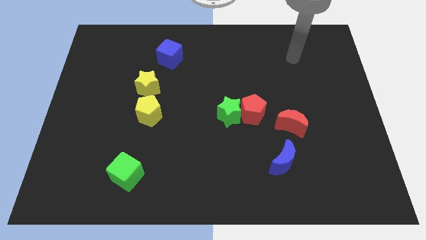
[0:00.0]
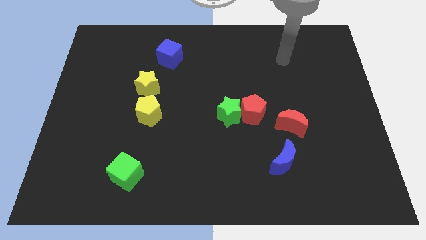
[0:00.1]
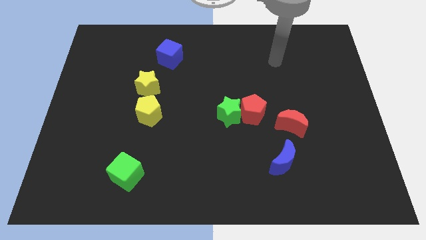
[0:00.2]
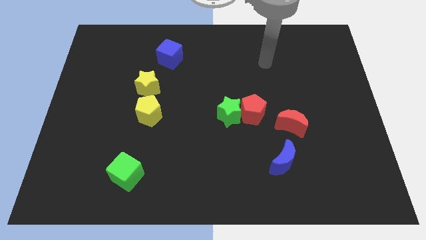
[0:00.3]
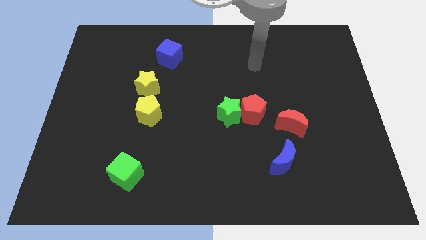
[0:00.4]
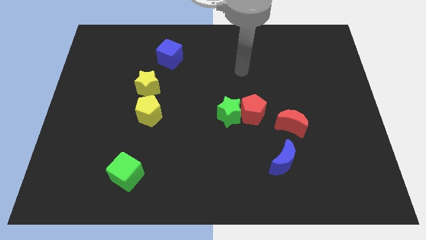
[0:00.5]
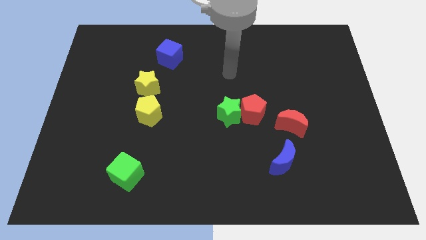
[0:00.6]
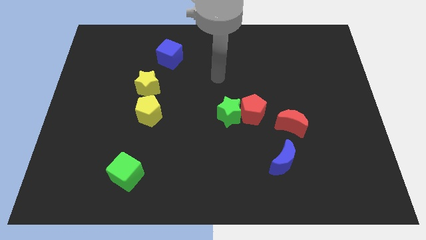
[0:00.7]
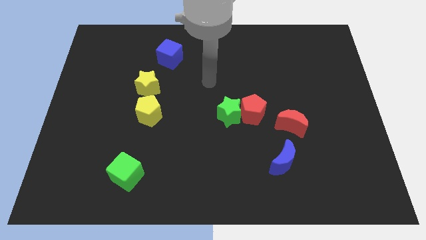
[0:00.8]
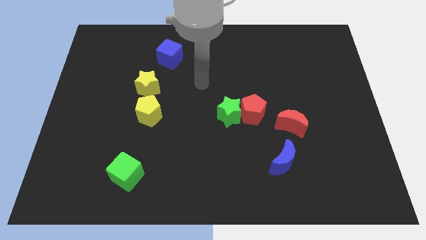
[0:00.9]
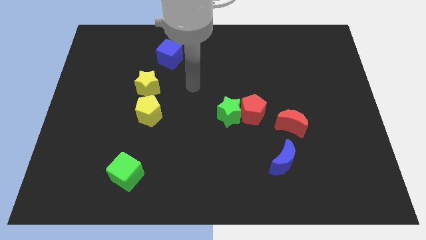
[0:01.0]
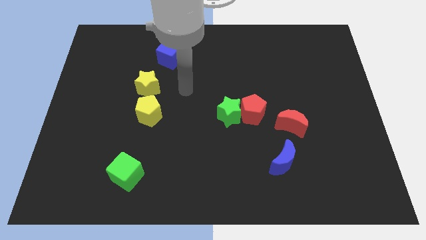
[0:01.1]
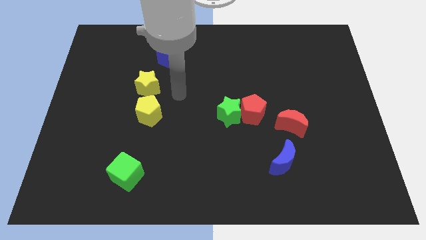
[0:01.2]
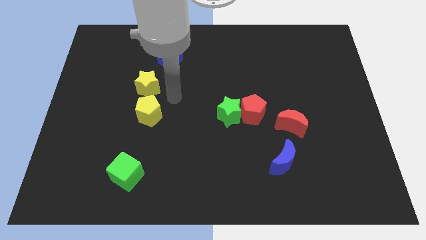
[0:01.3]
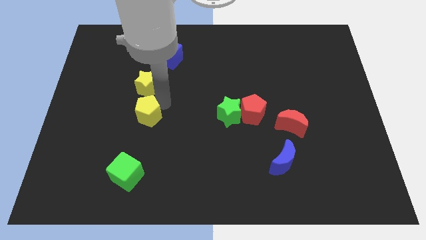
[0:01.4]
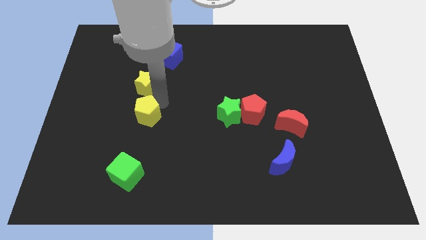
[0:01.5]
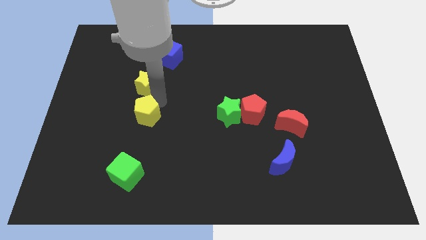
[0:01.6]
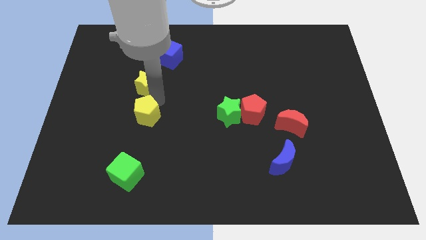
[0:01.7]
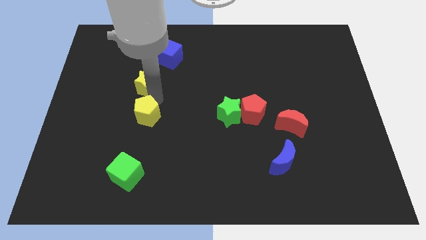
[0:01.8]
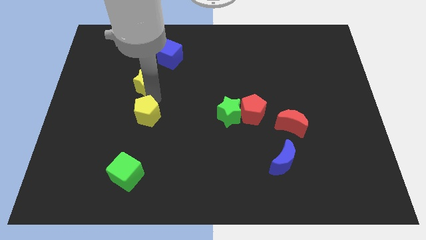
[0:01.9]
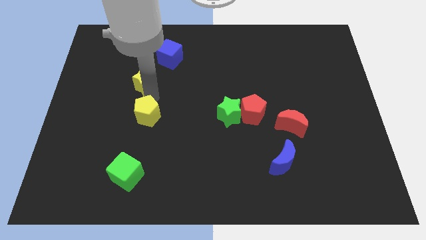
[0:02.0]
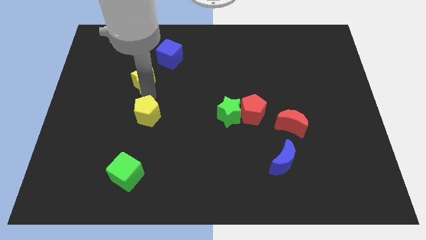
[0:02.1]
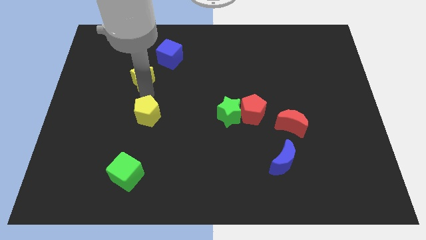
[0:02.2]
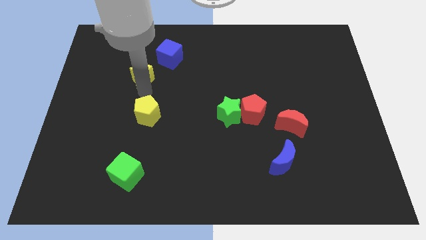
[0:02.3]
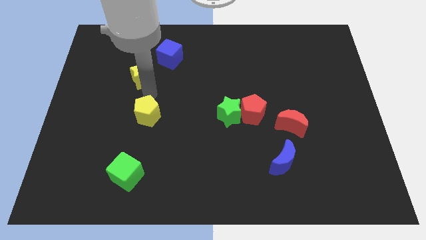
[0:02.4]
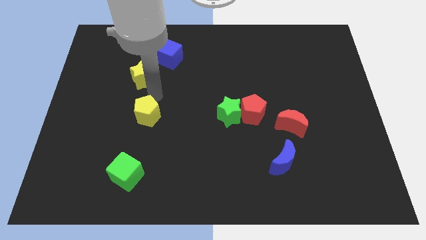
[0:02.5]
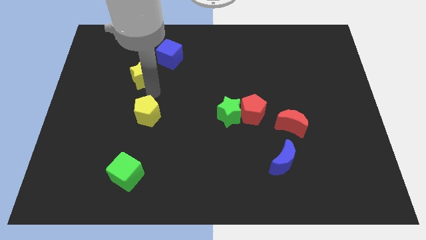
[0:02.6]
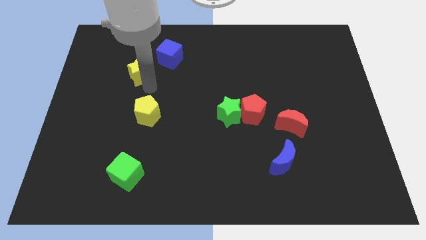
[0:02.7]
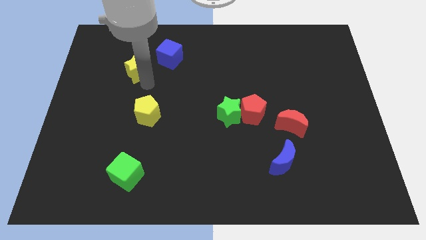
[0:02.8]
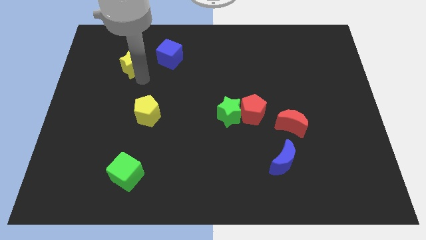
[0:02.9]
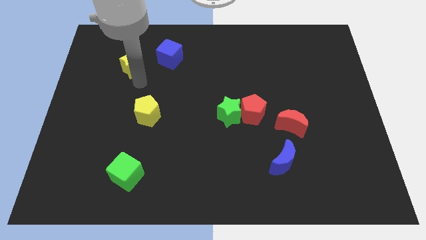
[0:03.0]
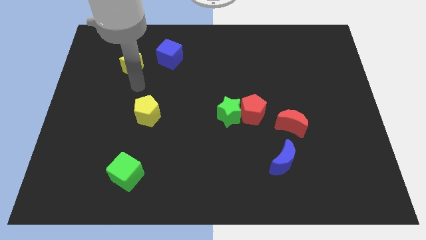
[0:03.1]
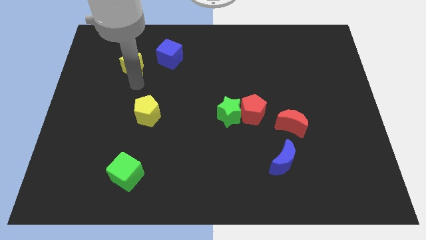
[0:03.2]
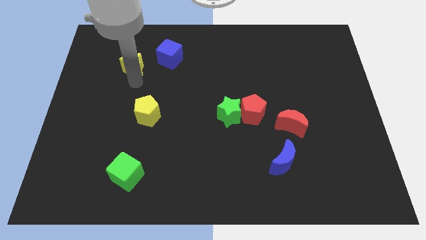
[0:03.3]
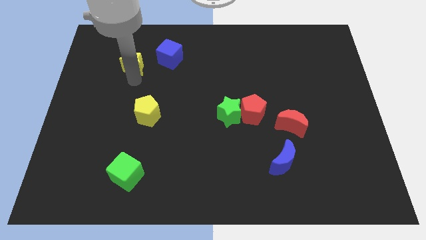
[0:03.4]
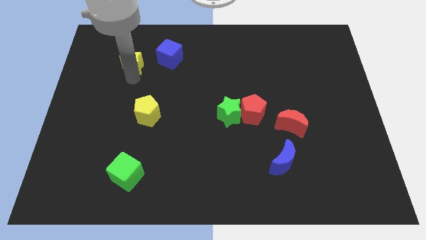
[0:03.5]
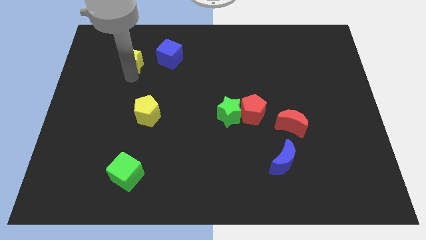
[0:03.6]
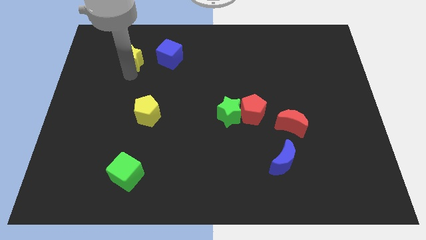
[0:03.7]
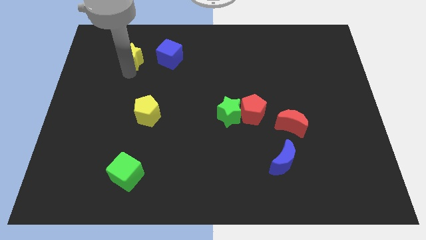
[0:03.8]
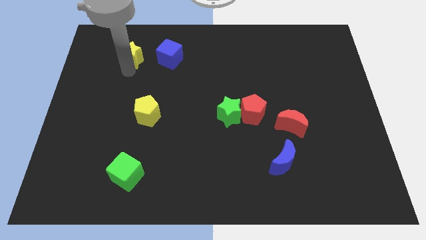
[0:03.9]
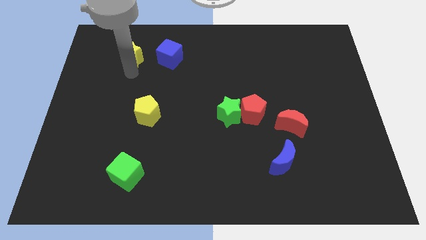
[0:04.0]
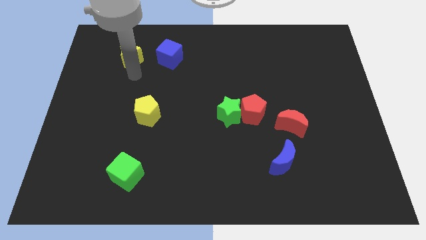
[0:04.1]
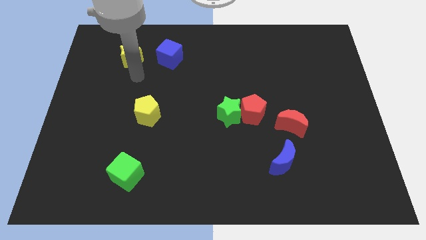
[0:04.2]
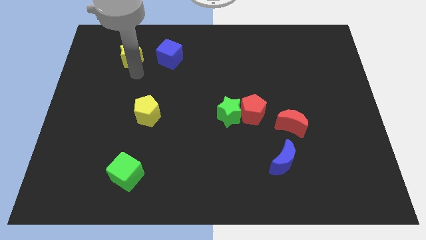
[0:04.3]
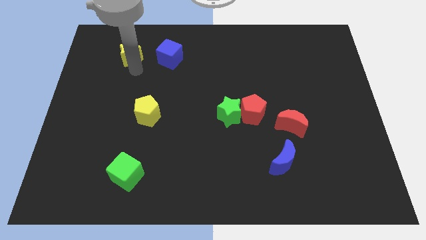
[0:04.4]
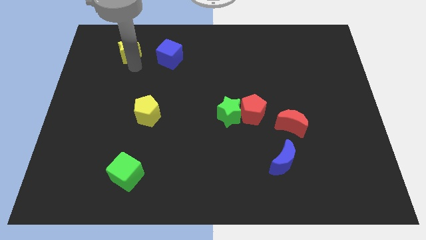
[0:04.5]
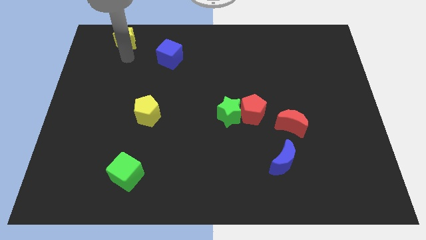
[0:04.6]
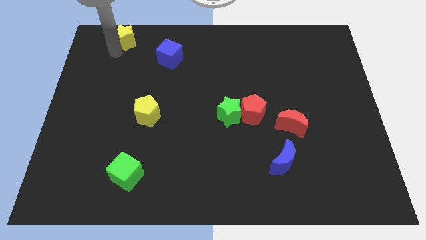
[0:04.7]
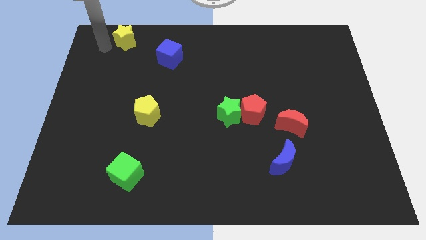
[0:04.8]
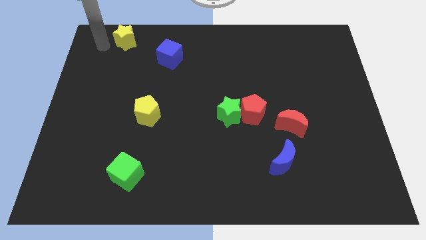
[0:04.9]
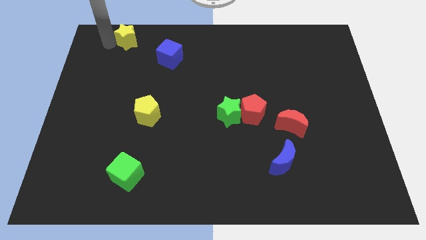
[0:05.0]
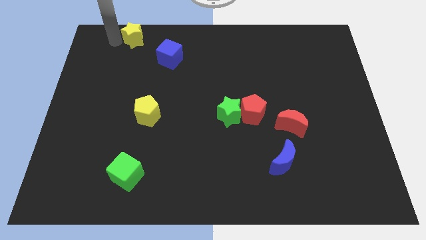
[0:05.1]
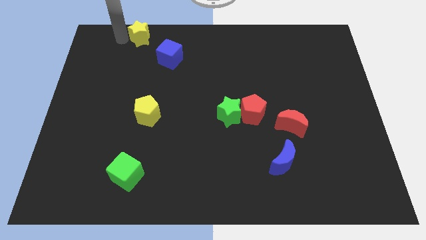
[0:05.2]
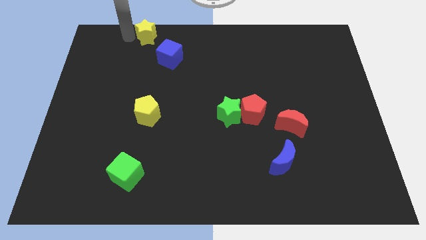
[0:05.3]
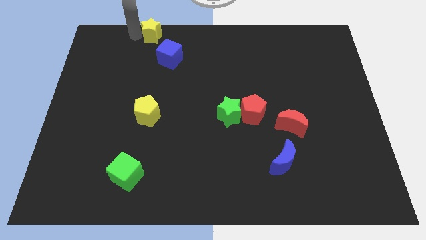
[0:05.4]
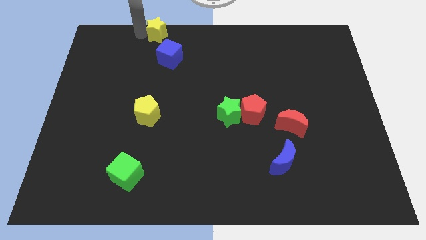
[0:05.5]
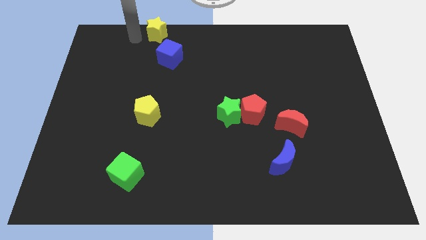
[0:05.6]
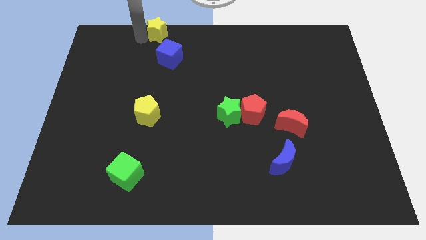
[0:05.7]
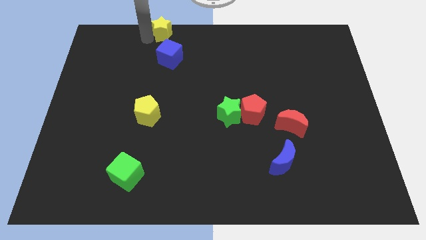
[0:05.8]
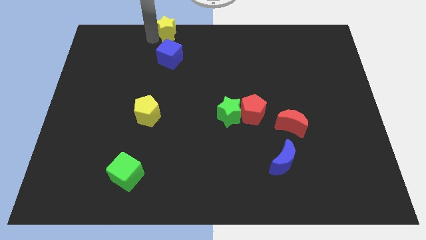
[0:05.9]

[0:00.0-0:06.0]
put the yellow star to the towards your base

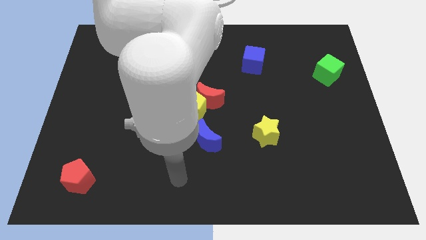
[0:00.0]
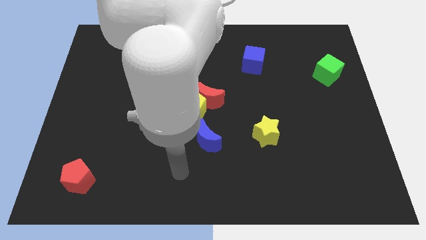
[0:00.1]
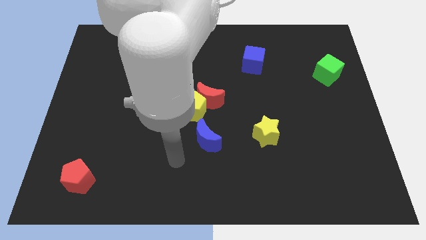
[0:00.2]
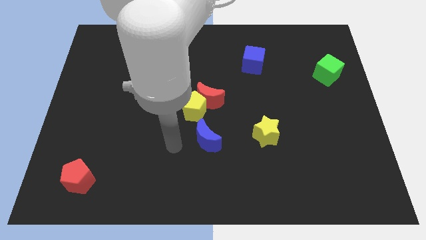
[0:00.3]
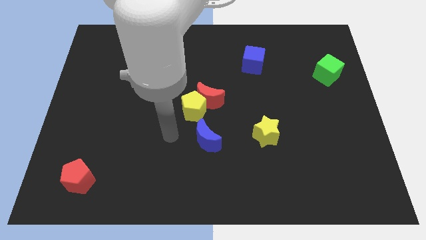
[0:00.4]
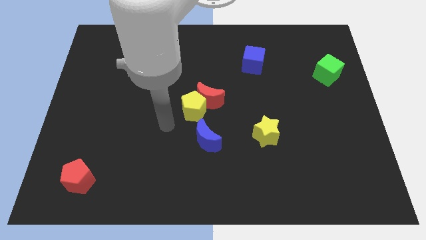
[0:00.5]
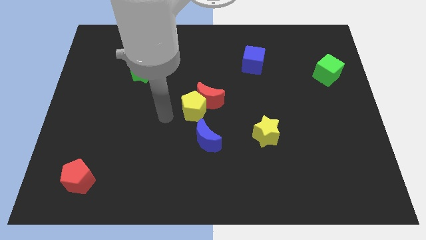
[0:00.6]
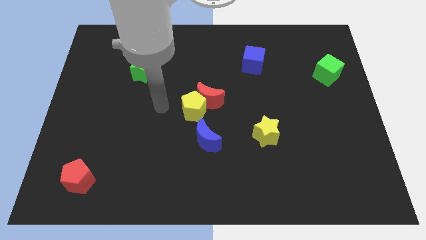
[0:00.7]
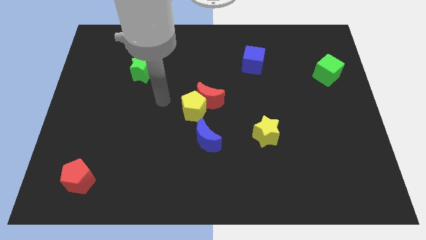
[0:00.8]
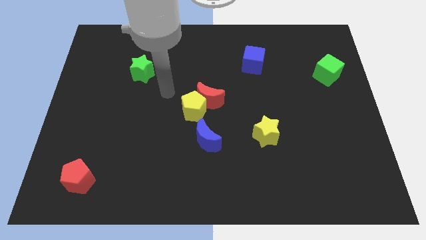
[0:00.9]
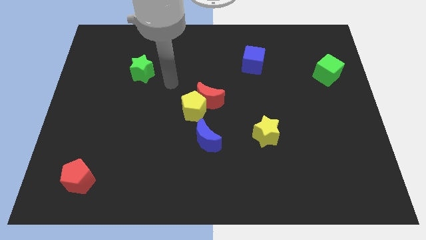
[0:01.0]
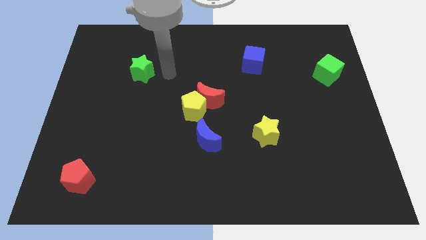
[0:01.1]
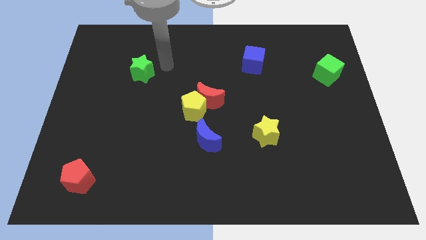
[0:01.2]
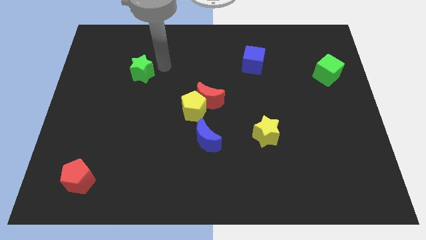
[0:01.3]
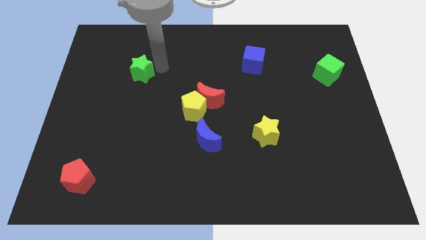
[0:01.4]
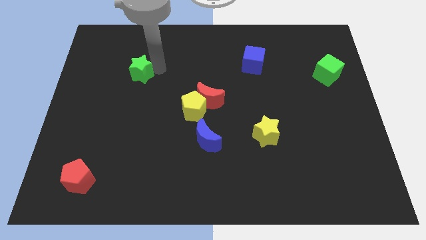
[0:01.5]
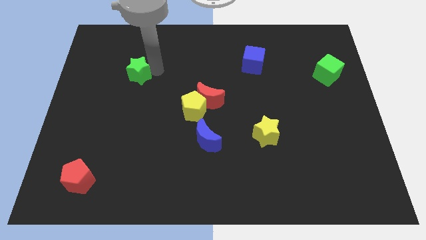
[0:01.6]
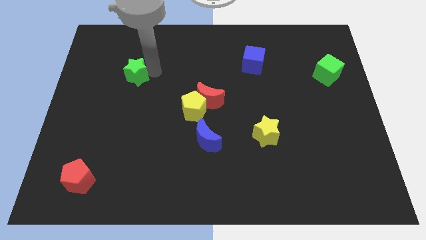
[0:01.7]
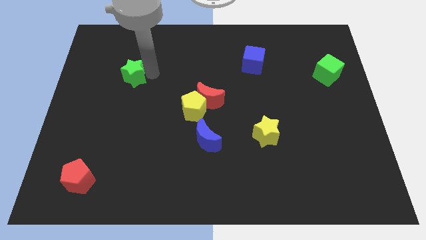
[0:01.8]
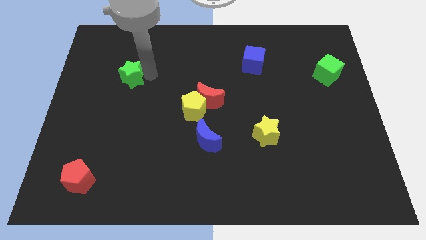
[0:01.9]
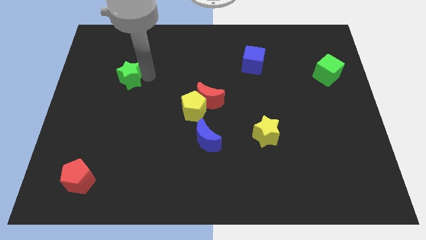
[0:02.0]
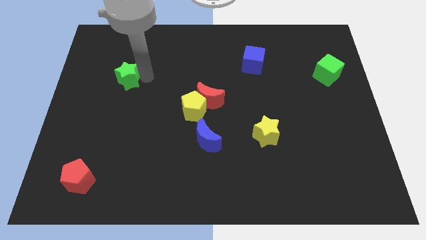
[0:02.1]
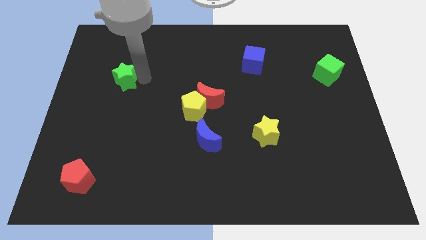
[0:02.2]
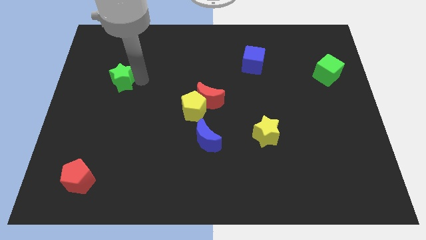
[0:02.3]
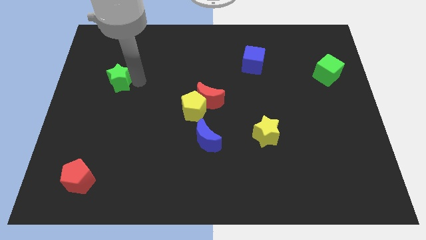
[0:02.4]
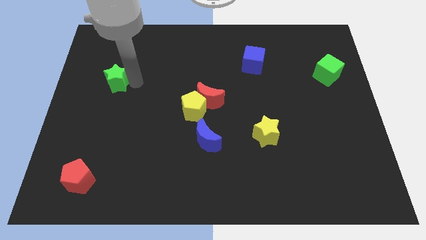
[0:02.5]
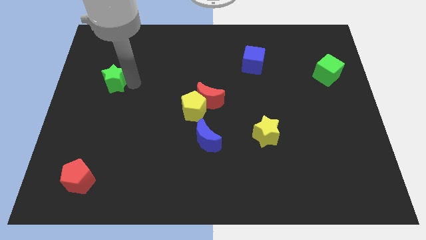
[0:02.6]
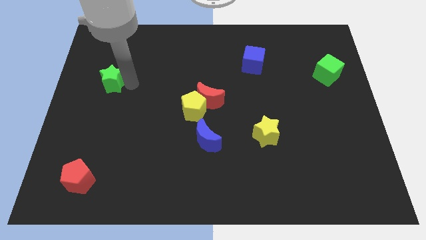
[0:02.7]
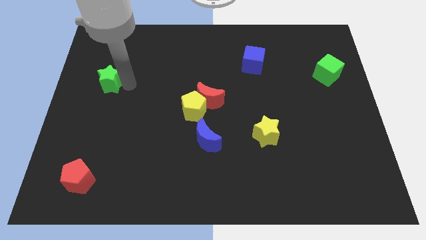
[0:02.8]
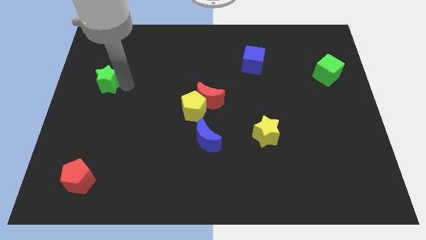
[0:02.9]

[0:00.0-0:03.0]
put the green star to the left side of the board
